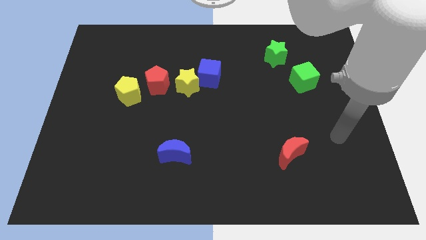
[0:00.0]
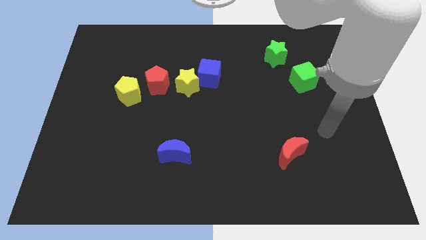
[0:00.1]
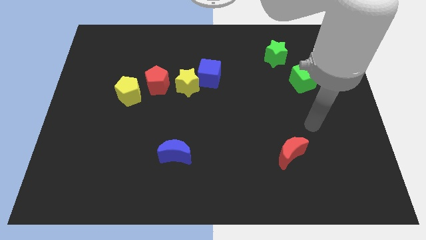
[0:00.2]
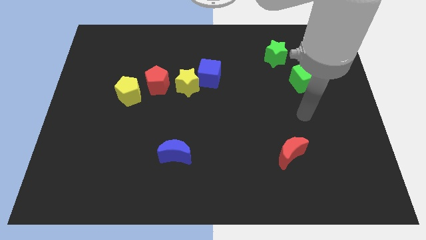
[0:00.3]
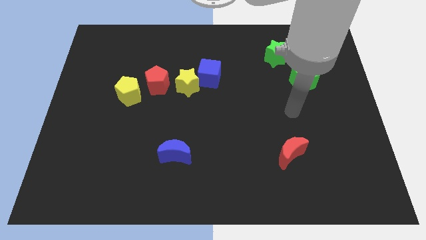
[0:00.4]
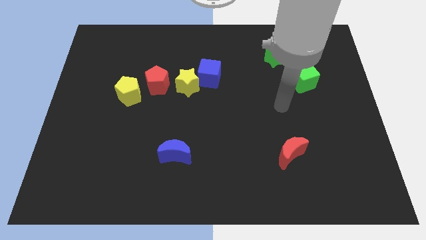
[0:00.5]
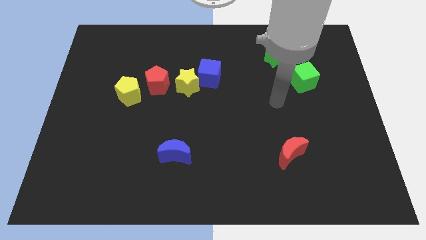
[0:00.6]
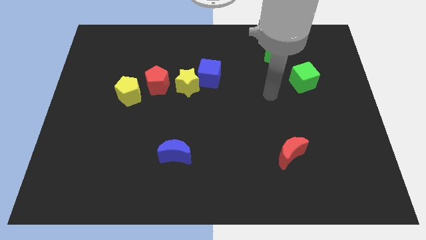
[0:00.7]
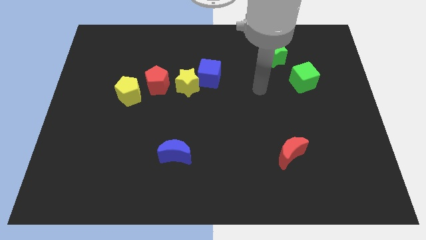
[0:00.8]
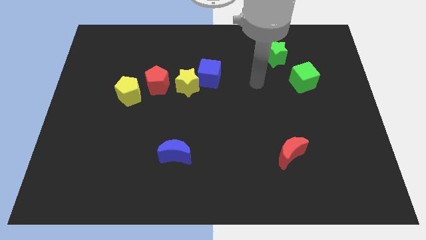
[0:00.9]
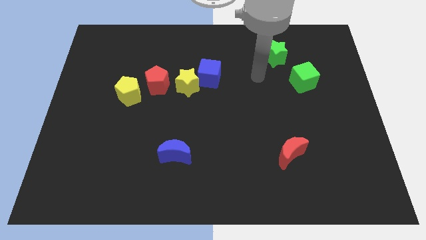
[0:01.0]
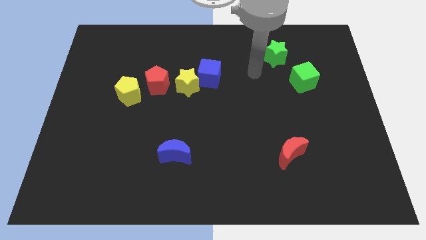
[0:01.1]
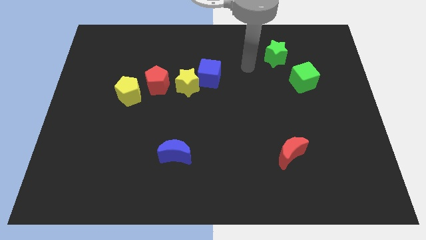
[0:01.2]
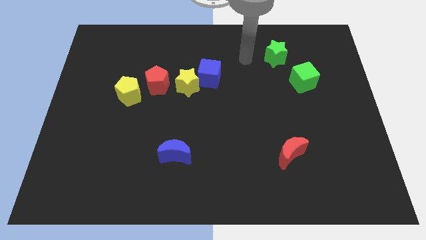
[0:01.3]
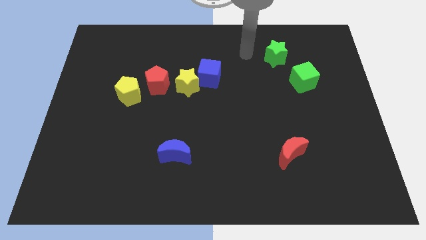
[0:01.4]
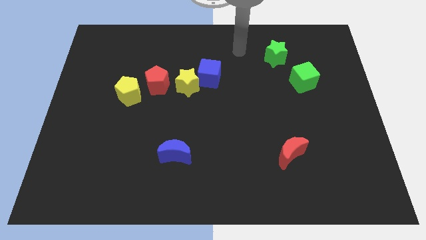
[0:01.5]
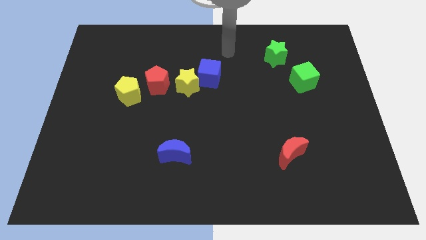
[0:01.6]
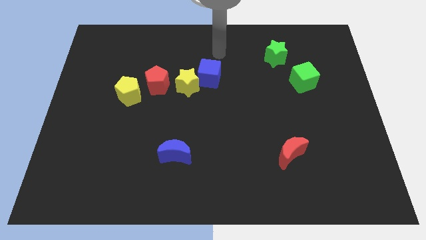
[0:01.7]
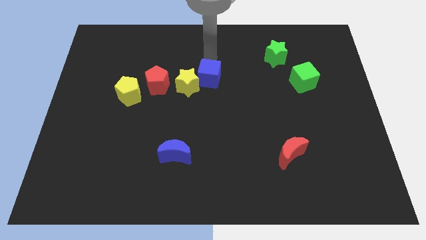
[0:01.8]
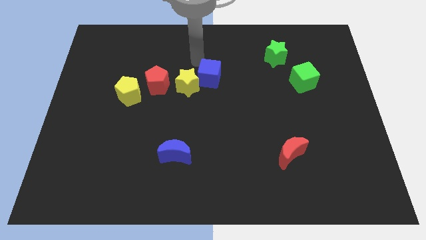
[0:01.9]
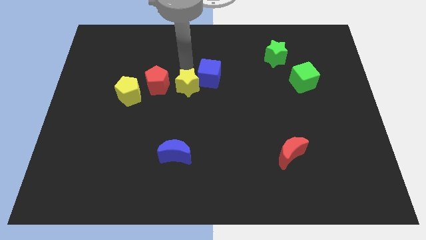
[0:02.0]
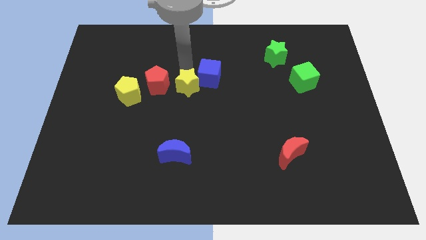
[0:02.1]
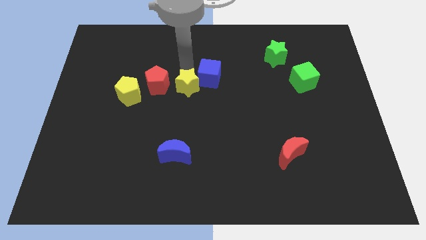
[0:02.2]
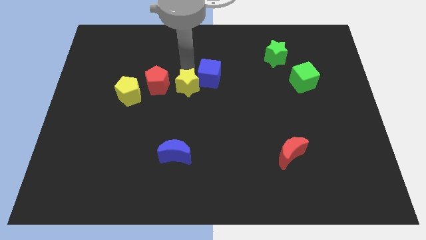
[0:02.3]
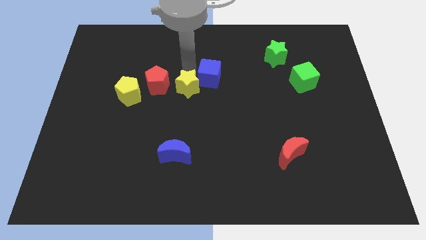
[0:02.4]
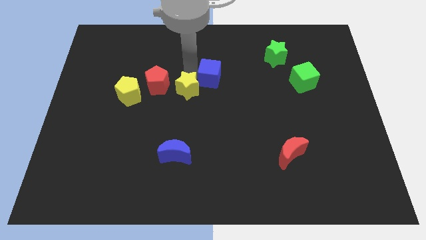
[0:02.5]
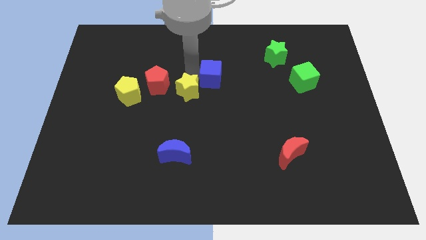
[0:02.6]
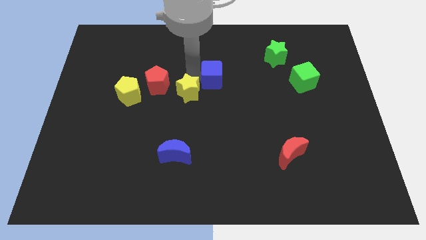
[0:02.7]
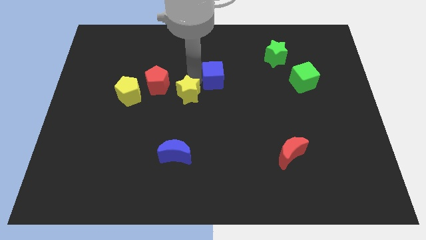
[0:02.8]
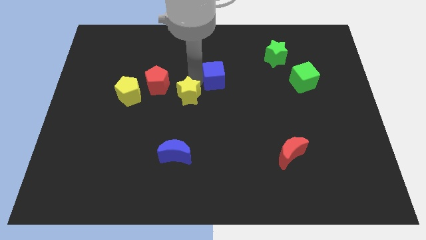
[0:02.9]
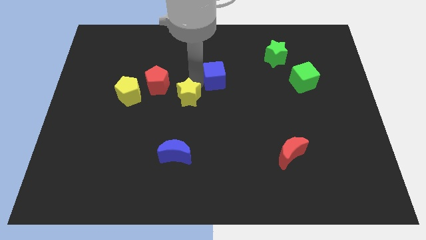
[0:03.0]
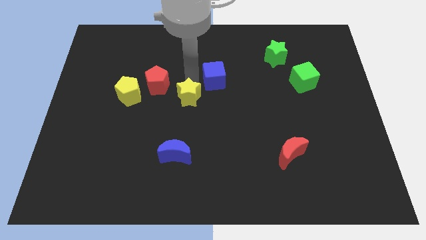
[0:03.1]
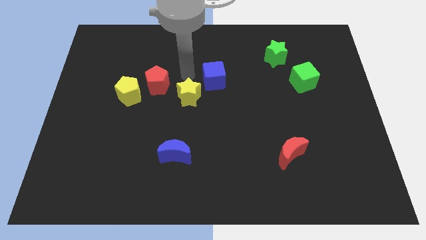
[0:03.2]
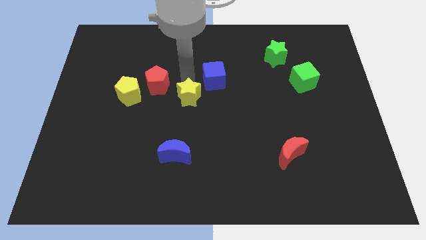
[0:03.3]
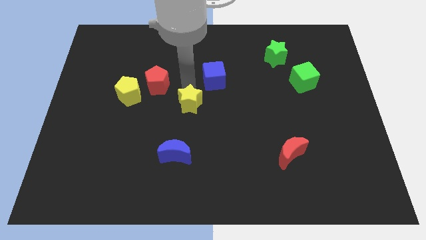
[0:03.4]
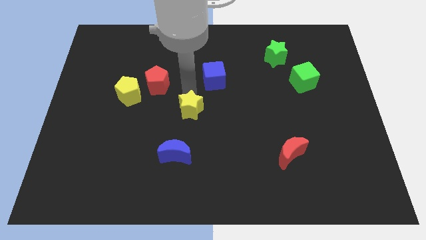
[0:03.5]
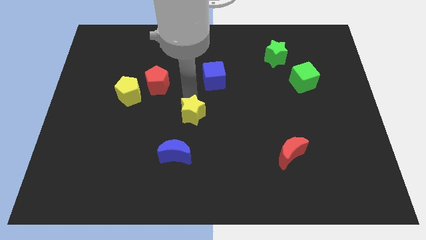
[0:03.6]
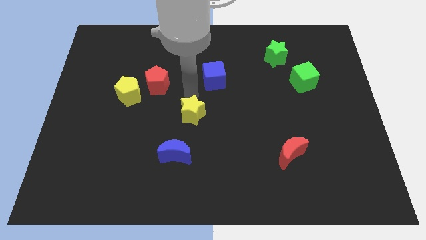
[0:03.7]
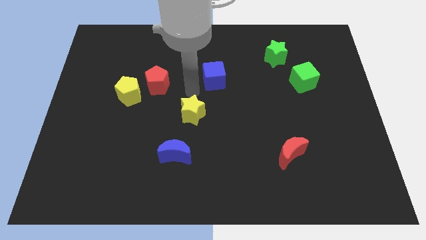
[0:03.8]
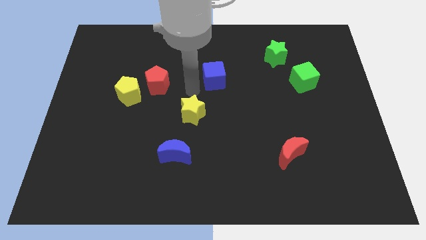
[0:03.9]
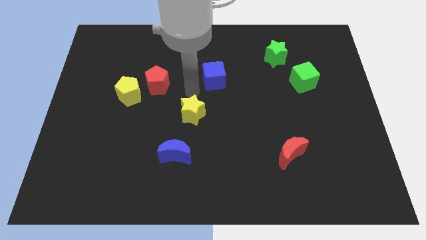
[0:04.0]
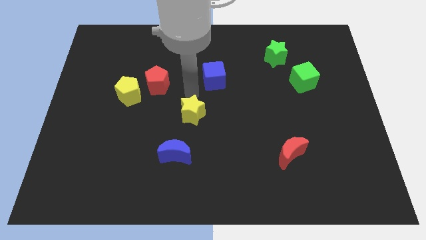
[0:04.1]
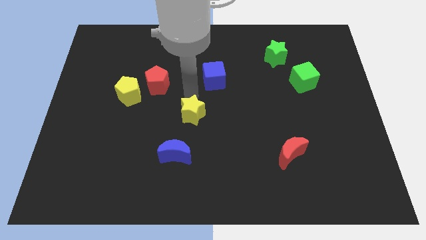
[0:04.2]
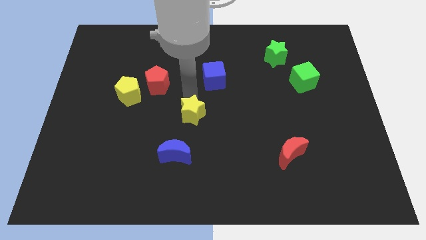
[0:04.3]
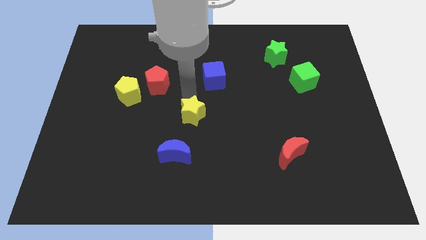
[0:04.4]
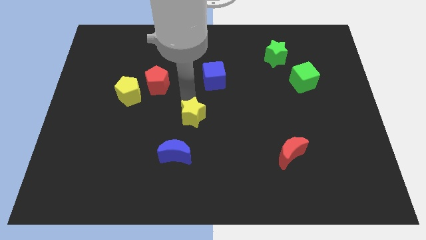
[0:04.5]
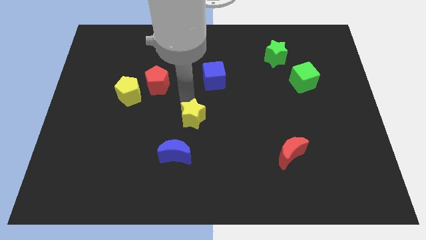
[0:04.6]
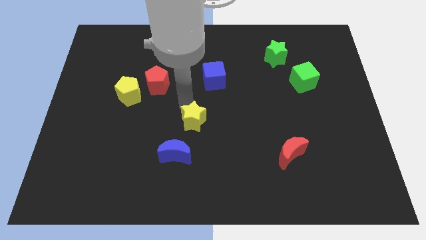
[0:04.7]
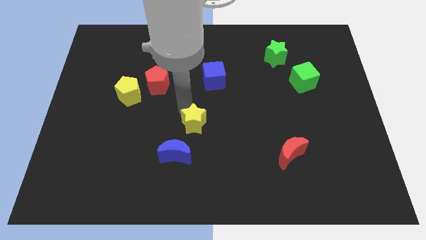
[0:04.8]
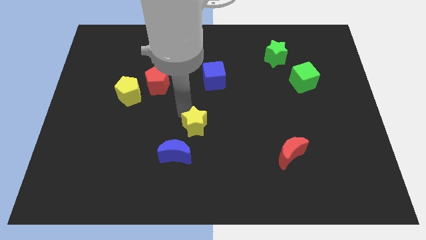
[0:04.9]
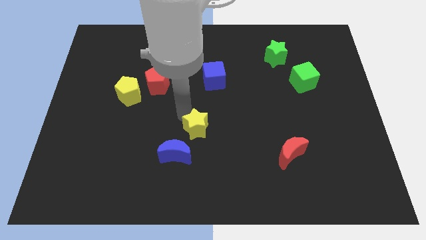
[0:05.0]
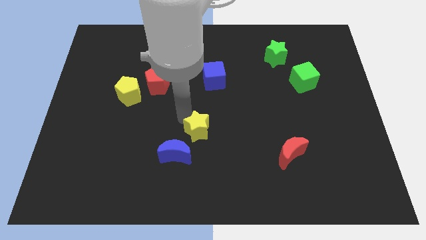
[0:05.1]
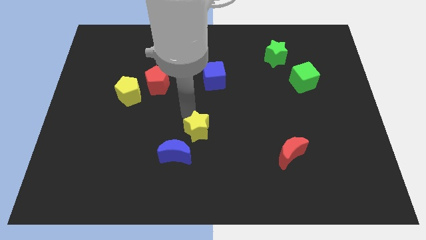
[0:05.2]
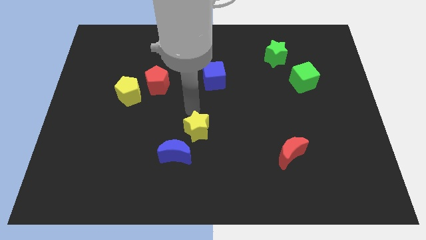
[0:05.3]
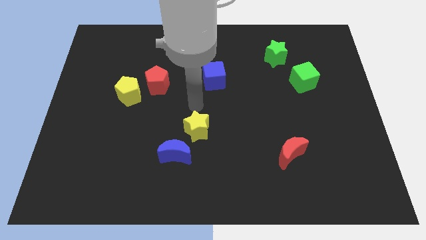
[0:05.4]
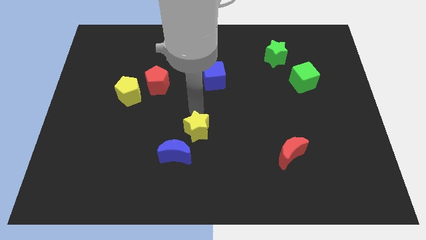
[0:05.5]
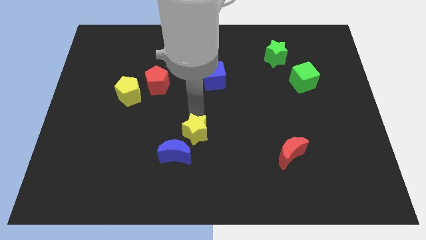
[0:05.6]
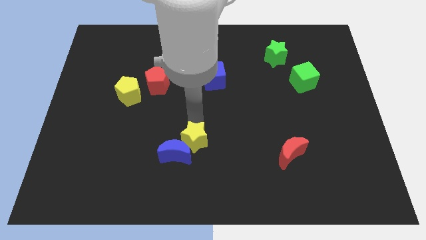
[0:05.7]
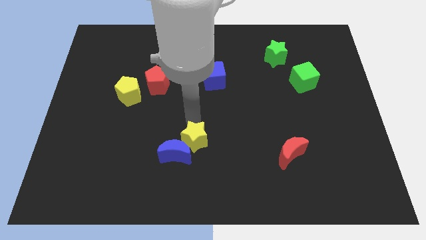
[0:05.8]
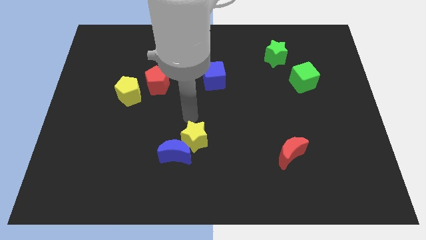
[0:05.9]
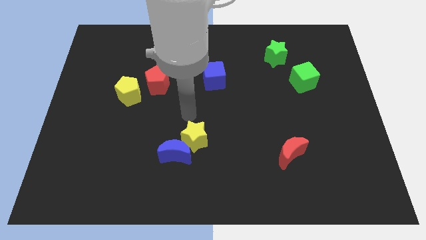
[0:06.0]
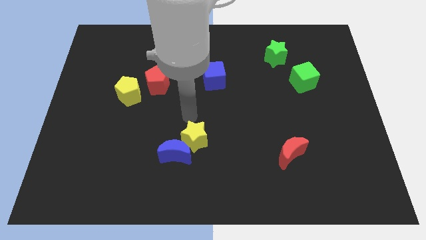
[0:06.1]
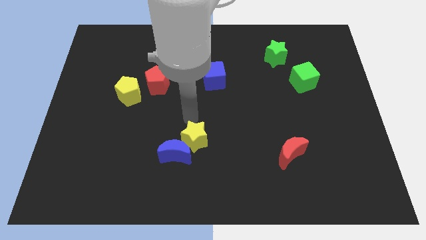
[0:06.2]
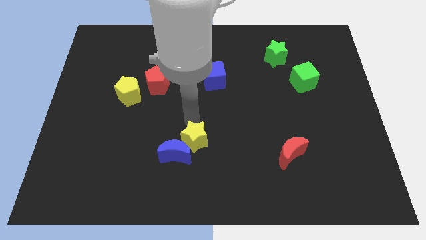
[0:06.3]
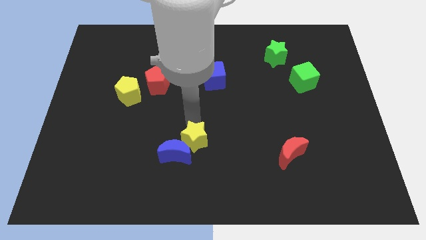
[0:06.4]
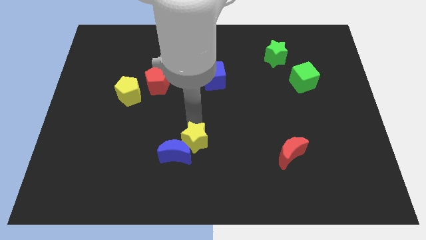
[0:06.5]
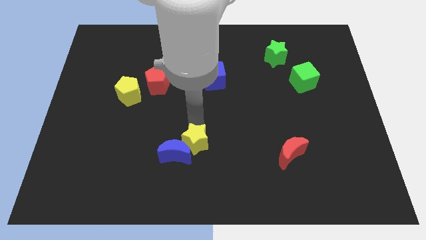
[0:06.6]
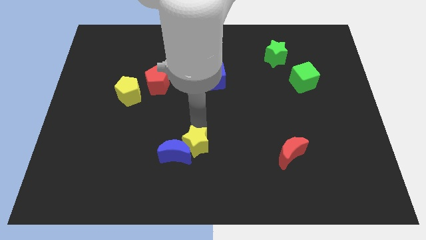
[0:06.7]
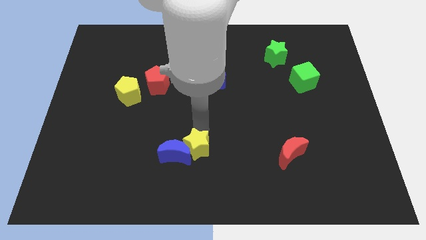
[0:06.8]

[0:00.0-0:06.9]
put the yellow star diagonally down and to the right of the blue moon
